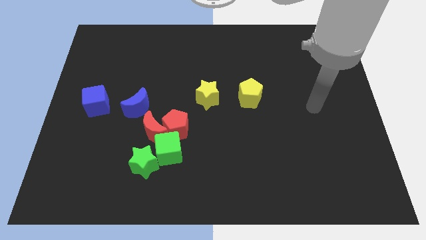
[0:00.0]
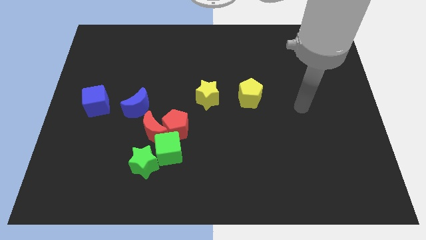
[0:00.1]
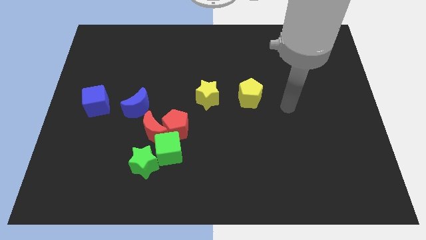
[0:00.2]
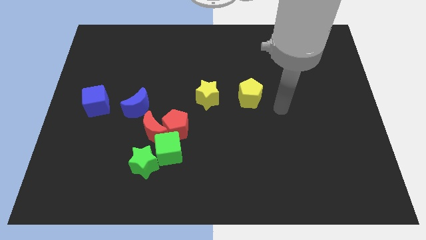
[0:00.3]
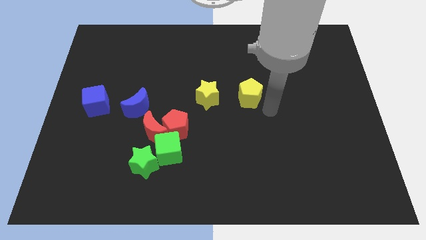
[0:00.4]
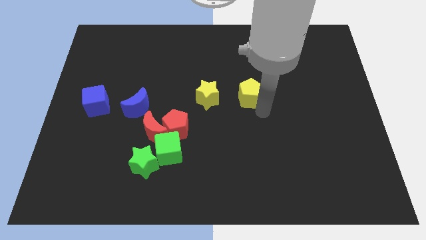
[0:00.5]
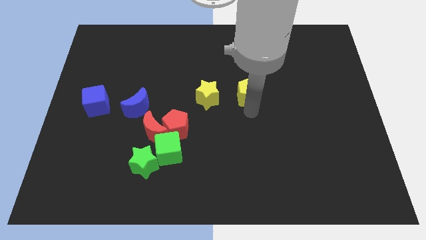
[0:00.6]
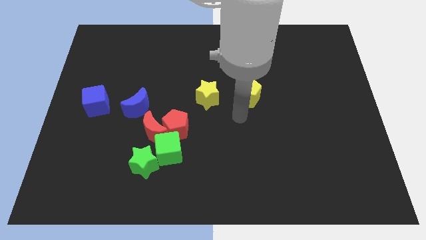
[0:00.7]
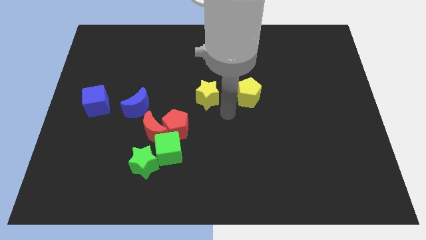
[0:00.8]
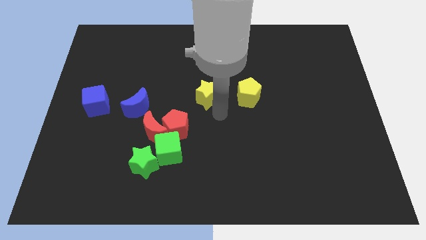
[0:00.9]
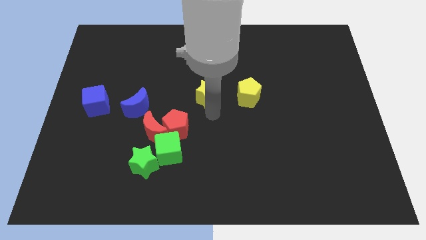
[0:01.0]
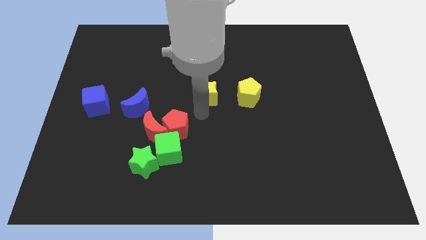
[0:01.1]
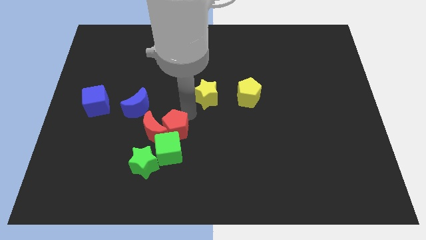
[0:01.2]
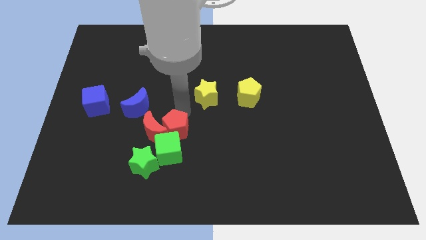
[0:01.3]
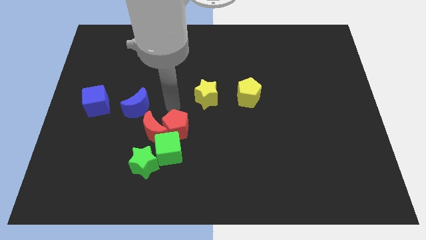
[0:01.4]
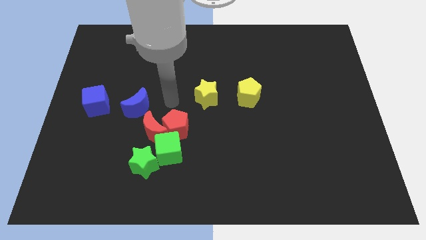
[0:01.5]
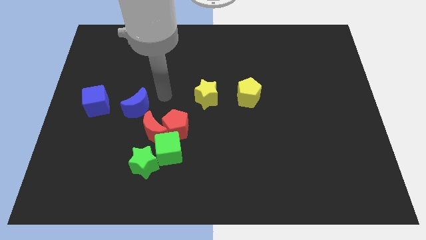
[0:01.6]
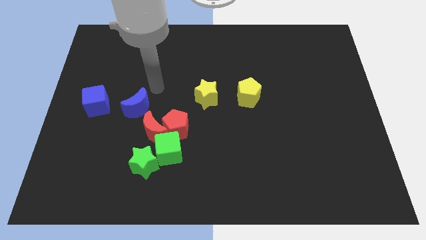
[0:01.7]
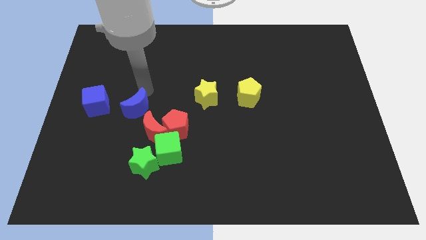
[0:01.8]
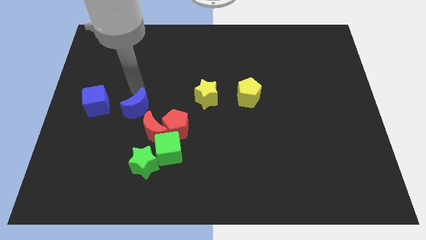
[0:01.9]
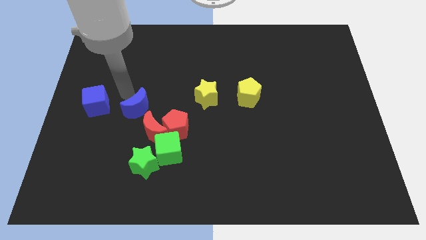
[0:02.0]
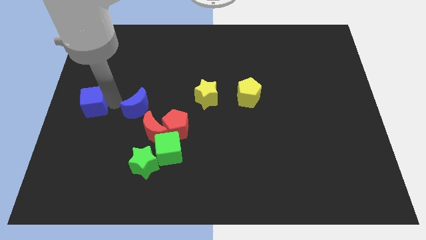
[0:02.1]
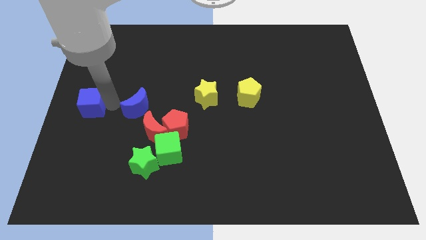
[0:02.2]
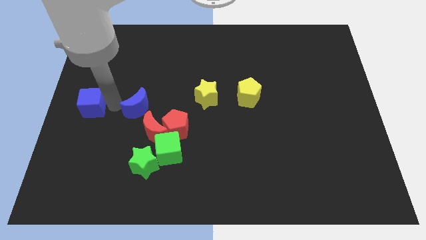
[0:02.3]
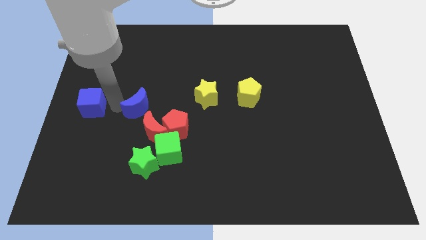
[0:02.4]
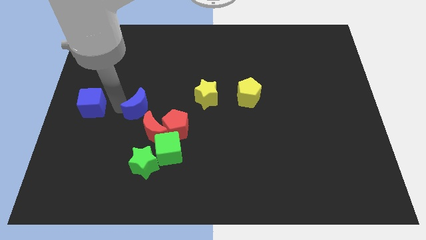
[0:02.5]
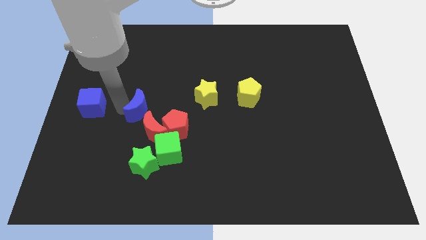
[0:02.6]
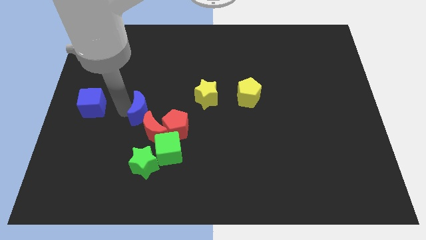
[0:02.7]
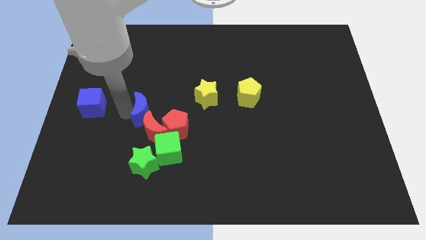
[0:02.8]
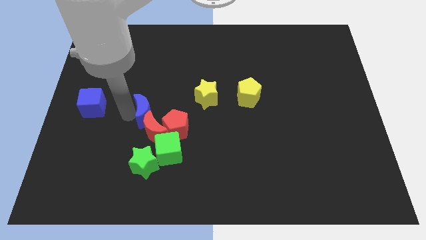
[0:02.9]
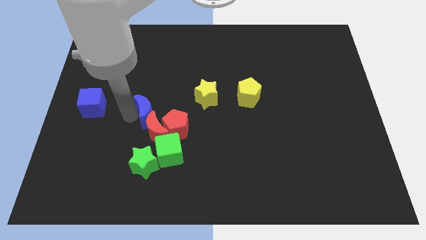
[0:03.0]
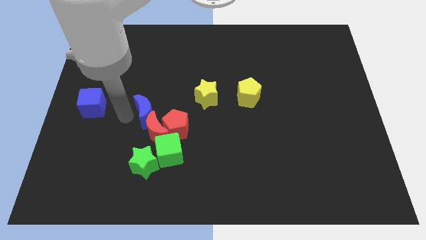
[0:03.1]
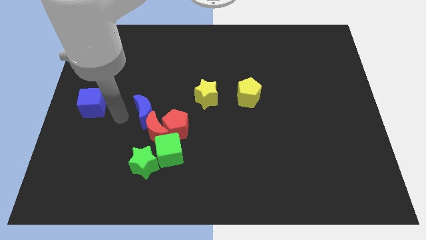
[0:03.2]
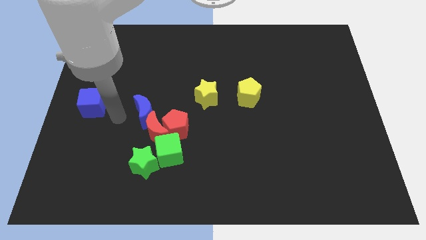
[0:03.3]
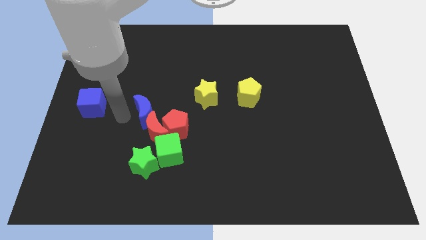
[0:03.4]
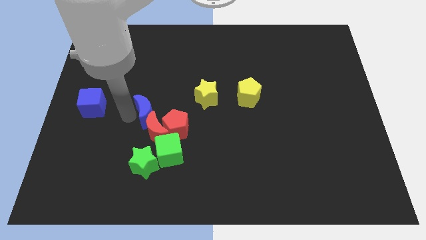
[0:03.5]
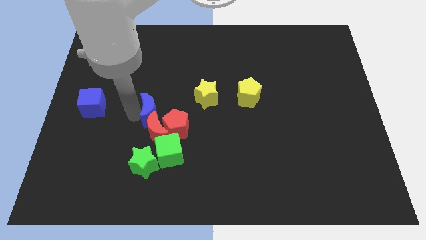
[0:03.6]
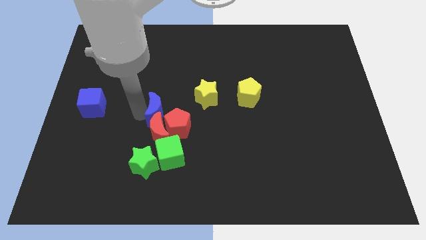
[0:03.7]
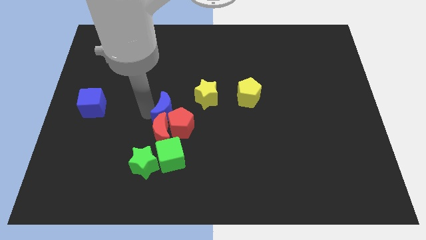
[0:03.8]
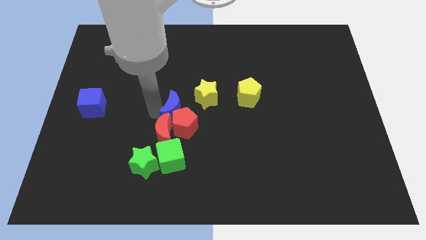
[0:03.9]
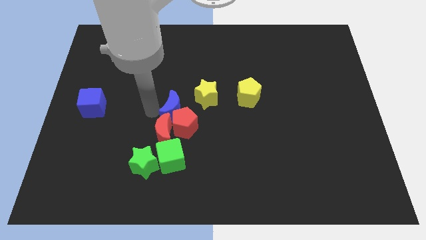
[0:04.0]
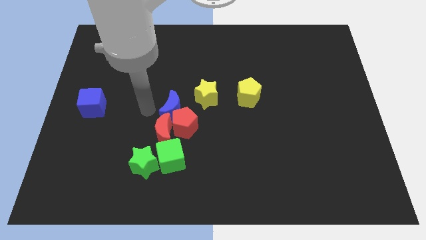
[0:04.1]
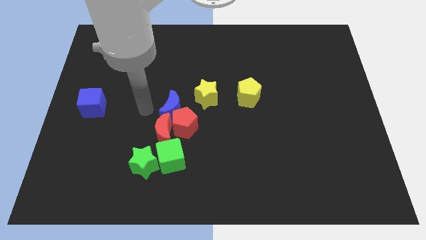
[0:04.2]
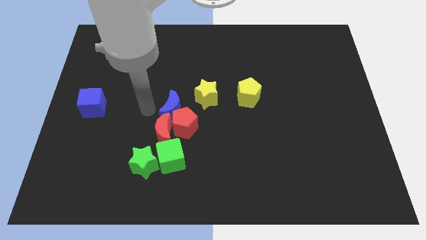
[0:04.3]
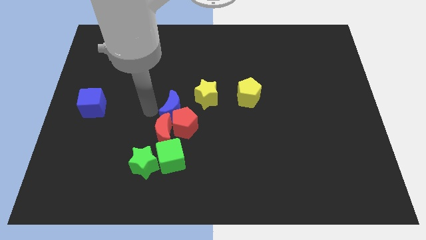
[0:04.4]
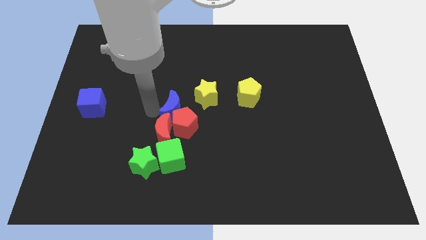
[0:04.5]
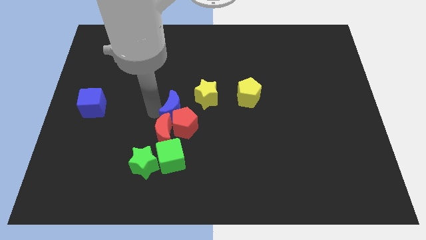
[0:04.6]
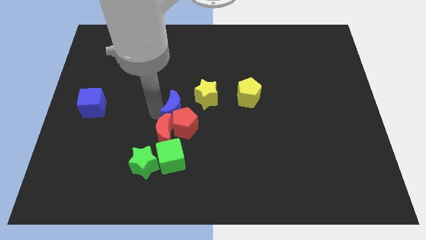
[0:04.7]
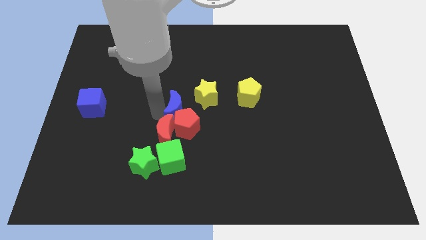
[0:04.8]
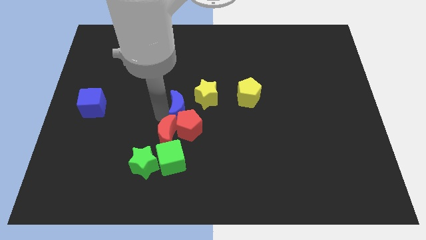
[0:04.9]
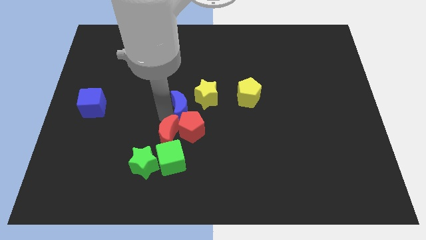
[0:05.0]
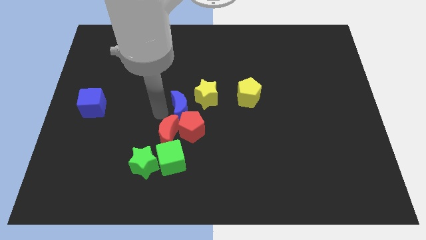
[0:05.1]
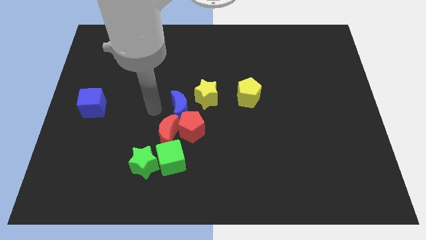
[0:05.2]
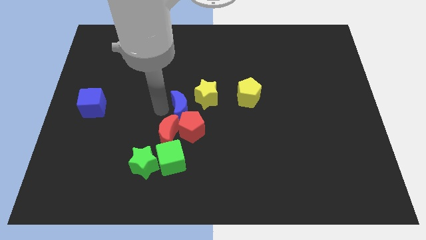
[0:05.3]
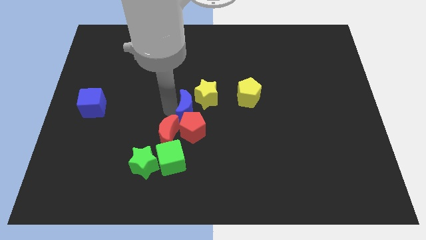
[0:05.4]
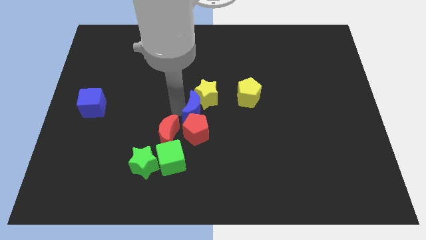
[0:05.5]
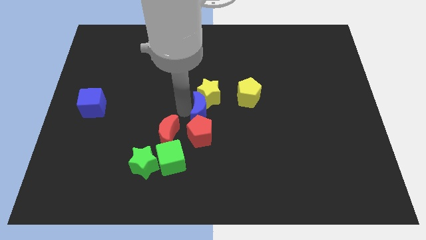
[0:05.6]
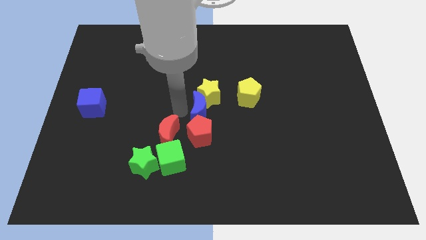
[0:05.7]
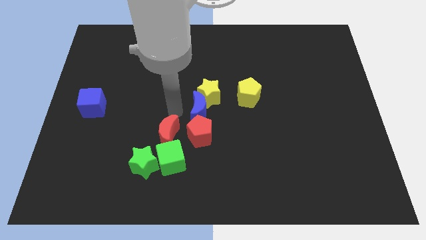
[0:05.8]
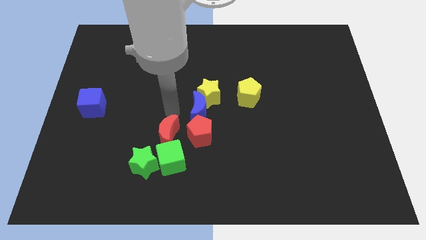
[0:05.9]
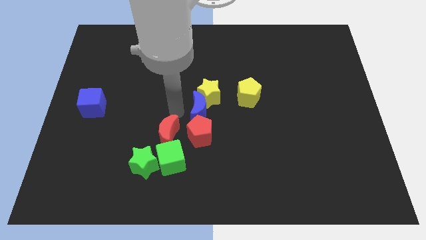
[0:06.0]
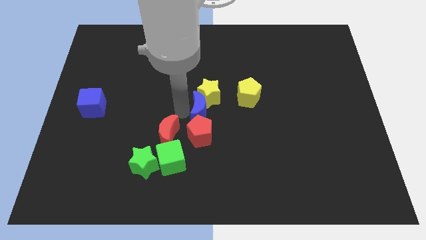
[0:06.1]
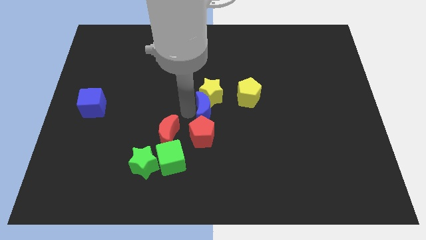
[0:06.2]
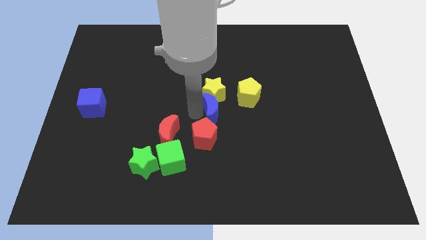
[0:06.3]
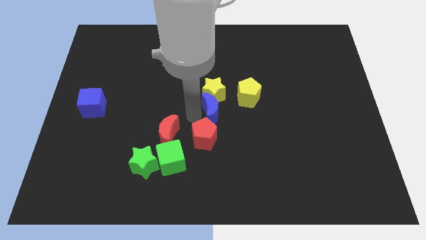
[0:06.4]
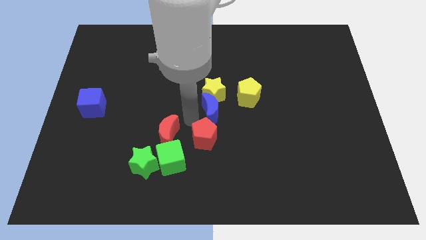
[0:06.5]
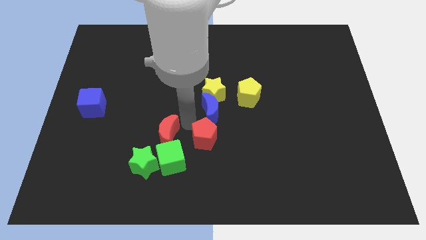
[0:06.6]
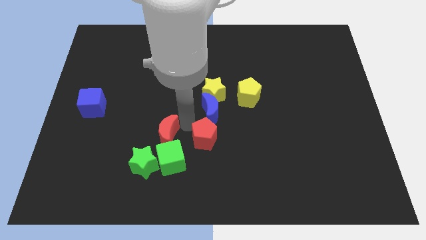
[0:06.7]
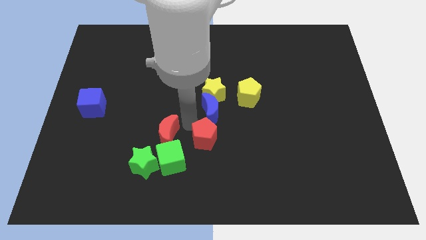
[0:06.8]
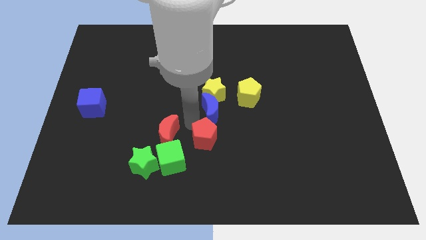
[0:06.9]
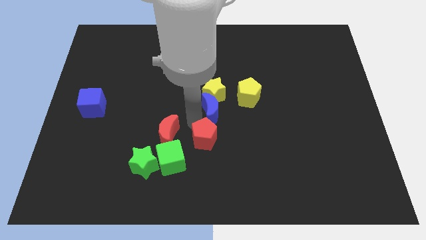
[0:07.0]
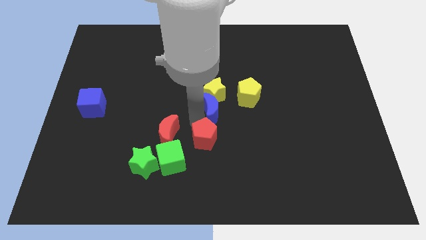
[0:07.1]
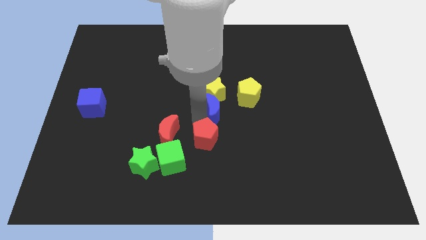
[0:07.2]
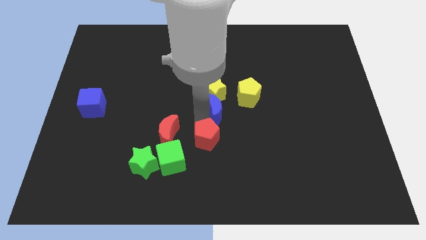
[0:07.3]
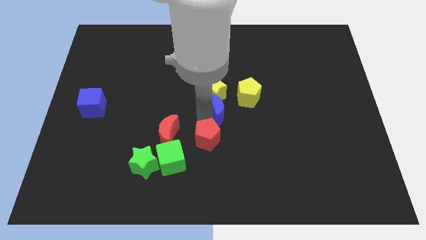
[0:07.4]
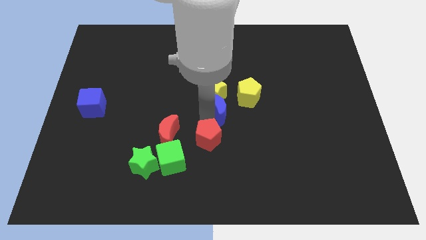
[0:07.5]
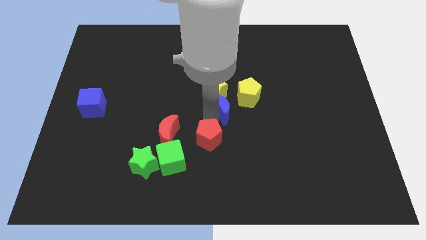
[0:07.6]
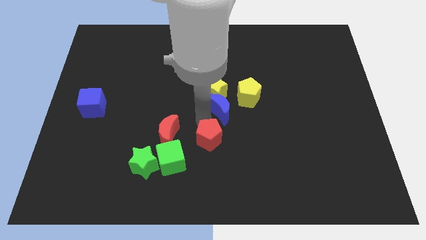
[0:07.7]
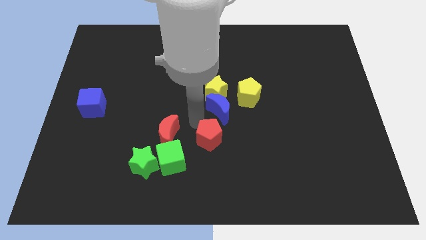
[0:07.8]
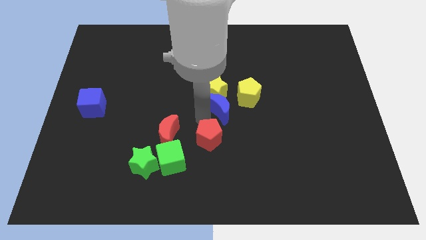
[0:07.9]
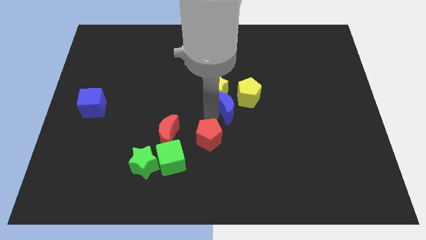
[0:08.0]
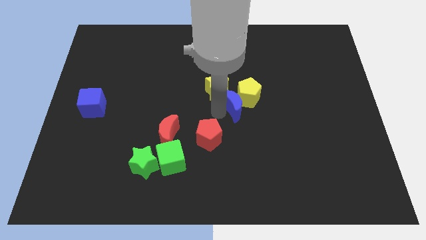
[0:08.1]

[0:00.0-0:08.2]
push the blue moon to the yellow pentagon
